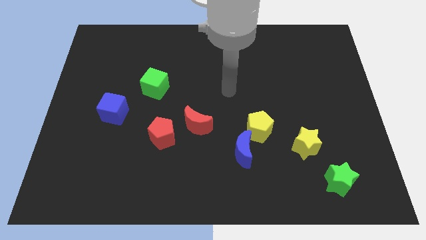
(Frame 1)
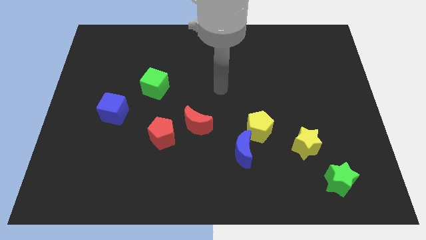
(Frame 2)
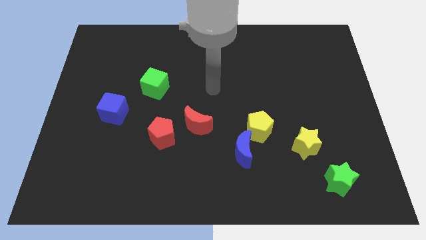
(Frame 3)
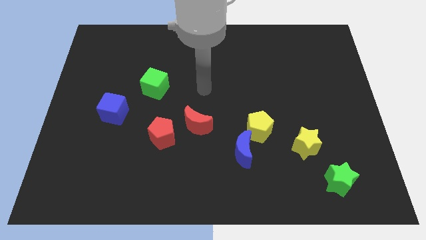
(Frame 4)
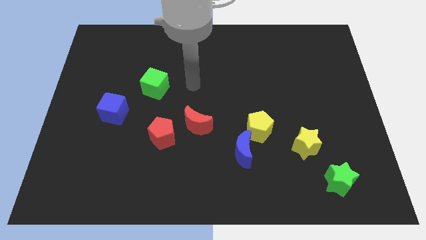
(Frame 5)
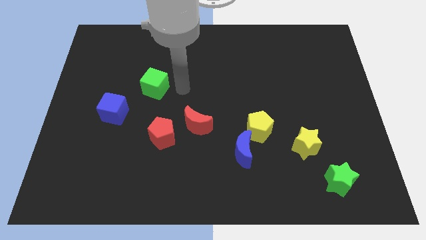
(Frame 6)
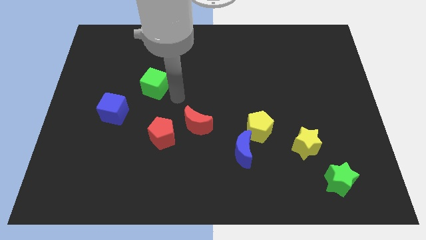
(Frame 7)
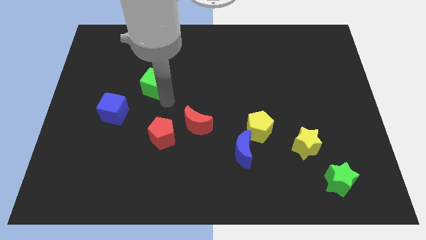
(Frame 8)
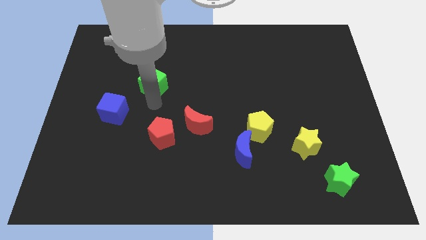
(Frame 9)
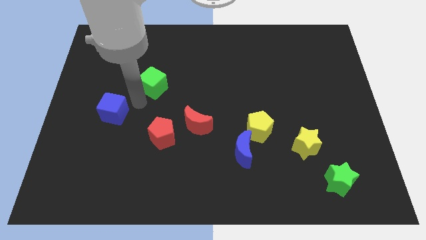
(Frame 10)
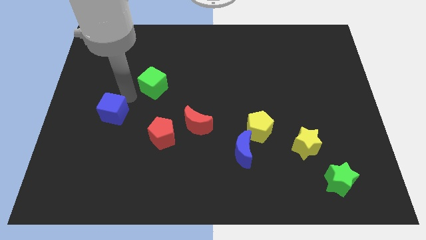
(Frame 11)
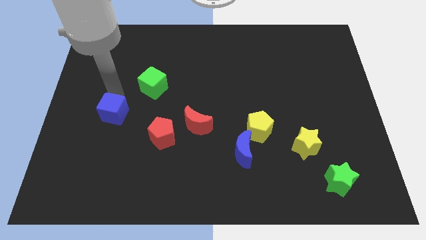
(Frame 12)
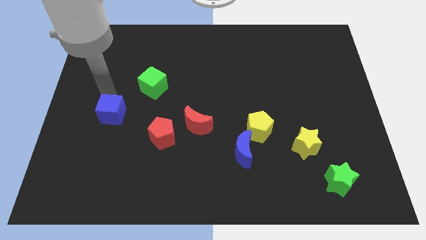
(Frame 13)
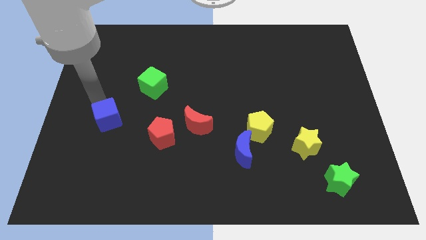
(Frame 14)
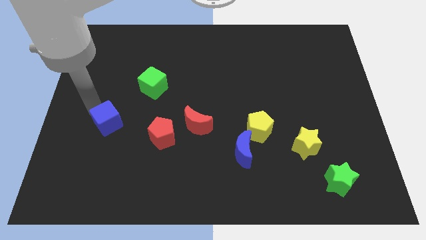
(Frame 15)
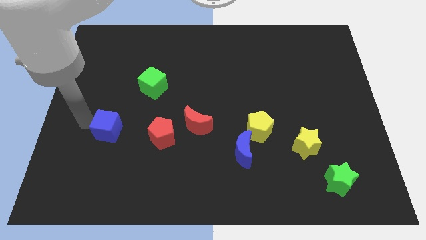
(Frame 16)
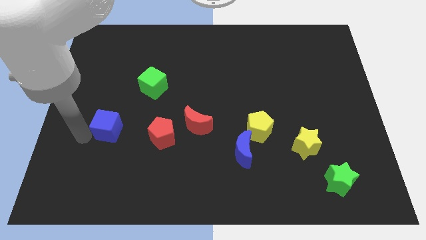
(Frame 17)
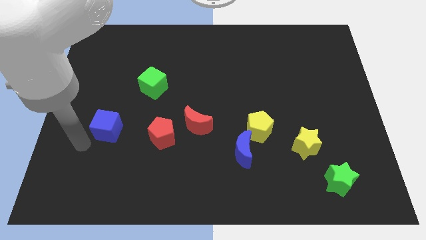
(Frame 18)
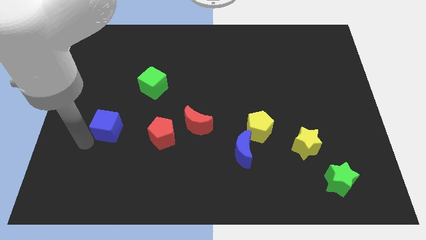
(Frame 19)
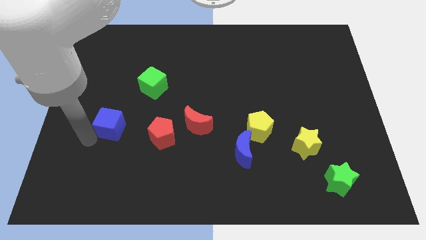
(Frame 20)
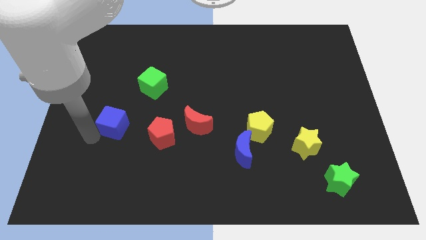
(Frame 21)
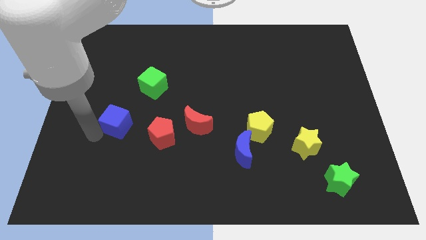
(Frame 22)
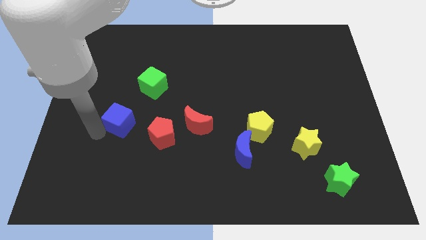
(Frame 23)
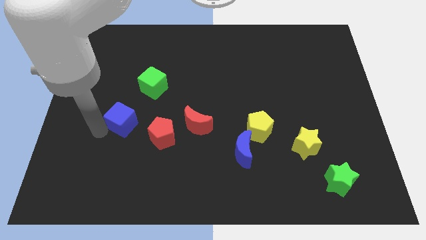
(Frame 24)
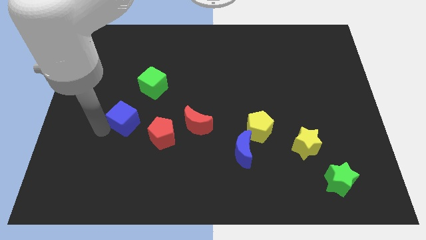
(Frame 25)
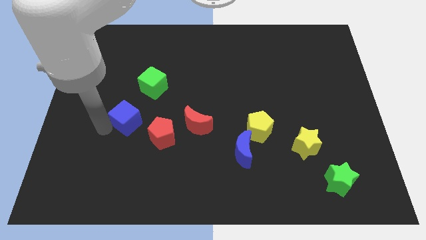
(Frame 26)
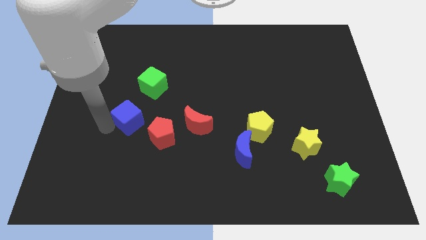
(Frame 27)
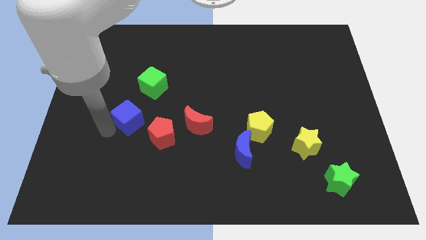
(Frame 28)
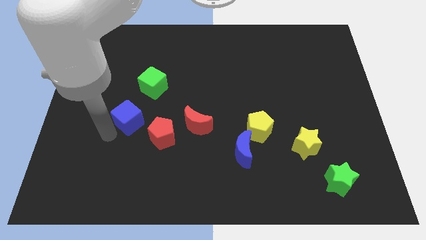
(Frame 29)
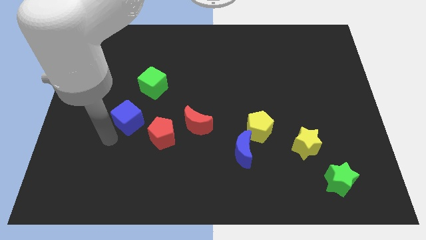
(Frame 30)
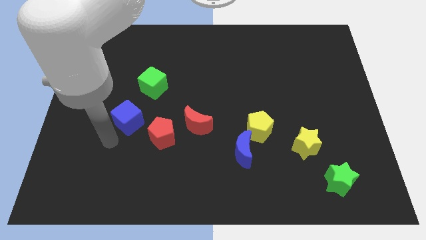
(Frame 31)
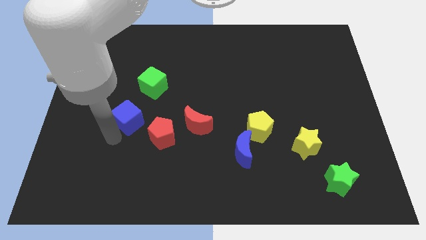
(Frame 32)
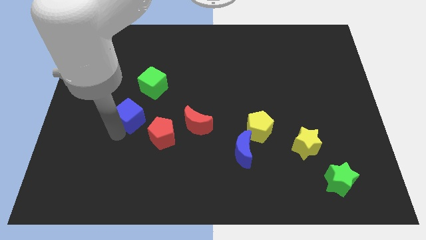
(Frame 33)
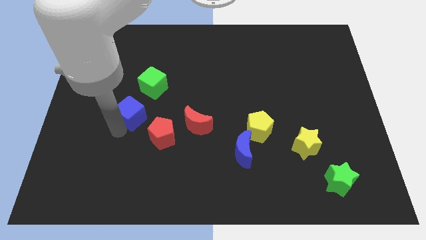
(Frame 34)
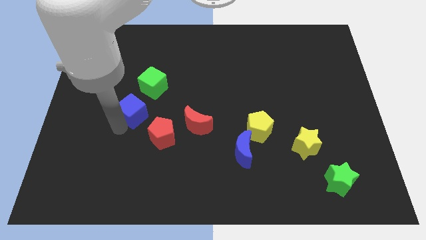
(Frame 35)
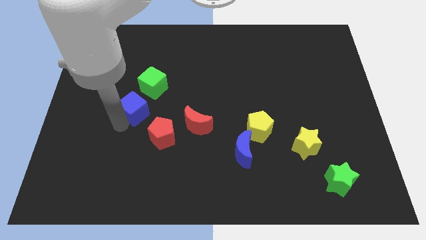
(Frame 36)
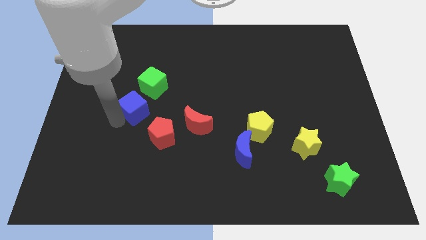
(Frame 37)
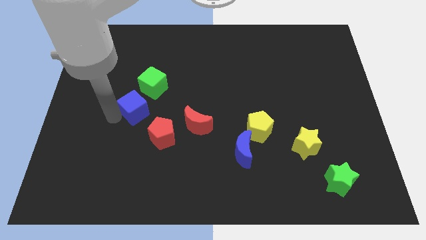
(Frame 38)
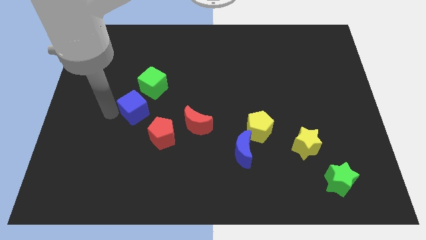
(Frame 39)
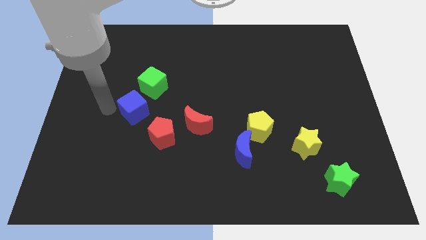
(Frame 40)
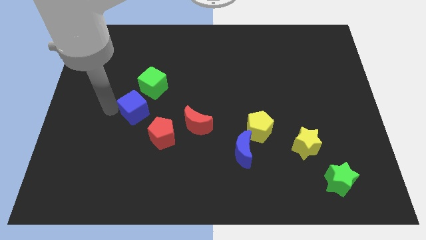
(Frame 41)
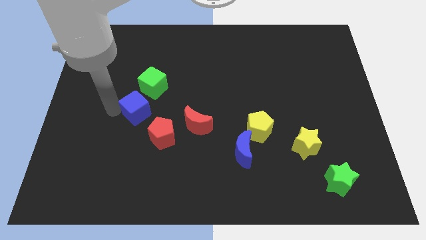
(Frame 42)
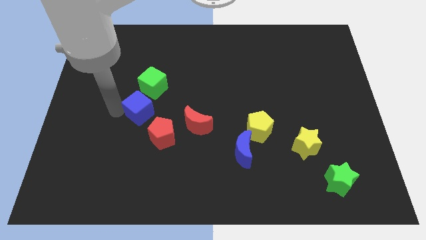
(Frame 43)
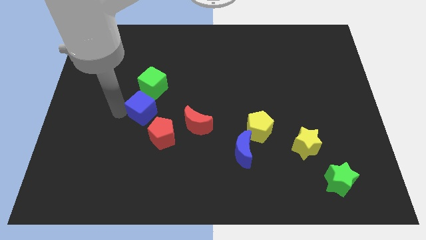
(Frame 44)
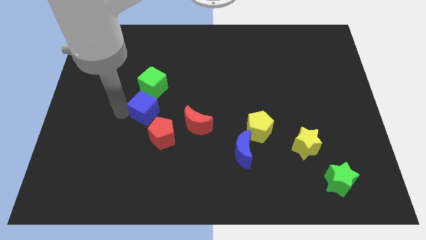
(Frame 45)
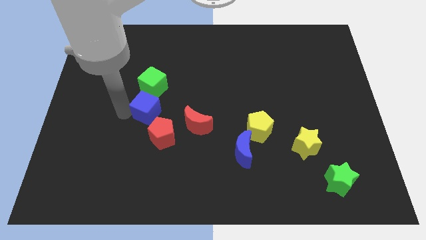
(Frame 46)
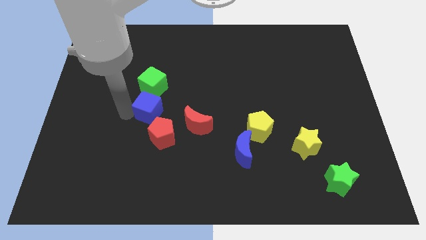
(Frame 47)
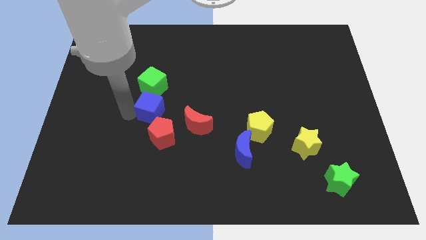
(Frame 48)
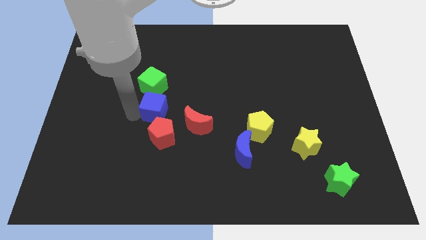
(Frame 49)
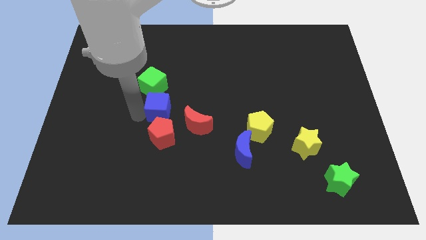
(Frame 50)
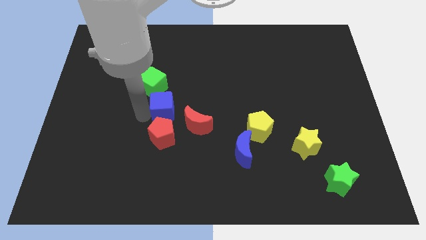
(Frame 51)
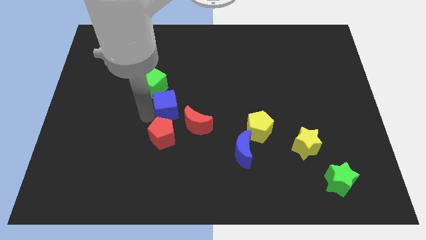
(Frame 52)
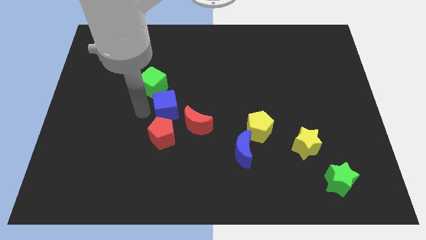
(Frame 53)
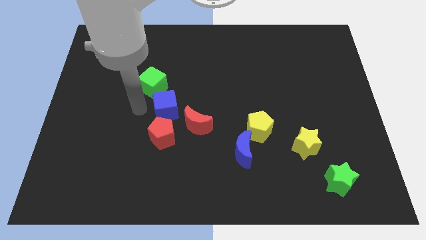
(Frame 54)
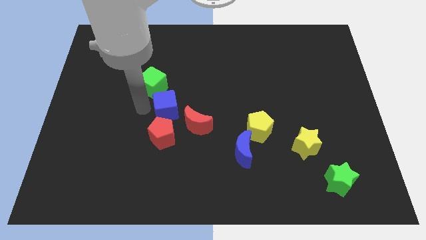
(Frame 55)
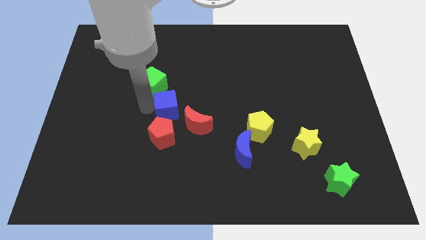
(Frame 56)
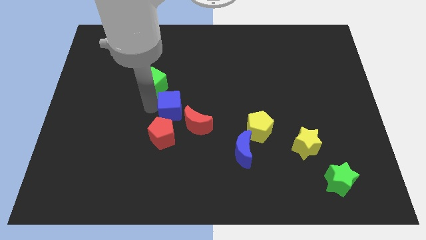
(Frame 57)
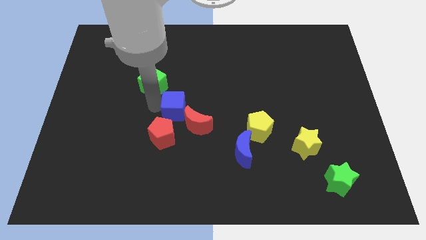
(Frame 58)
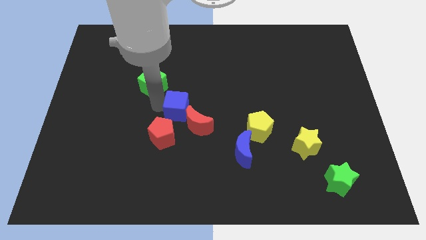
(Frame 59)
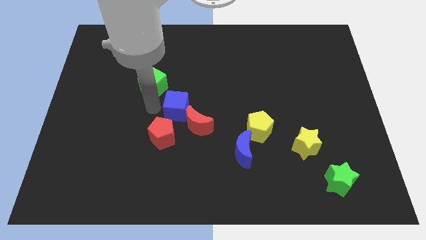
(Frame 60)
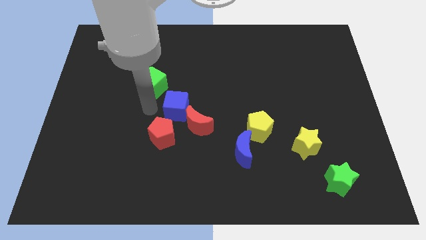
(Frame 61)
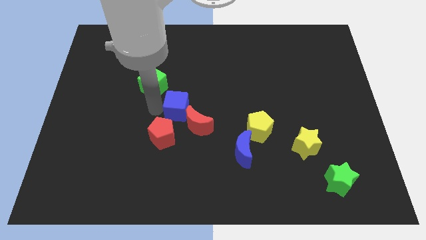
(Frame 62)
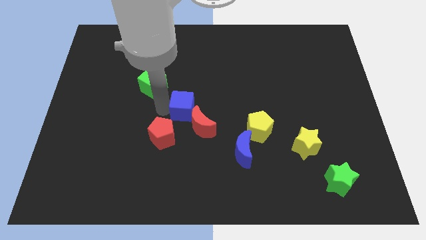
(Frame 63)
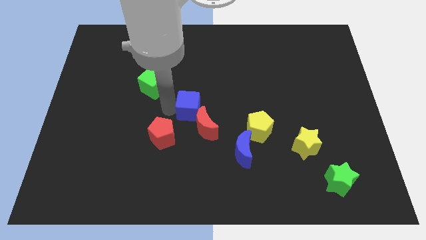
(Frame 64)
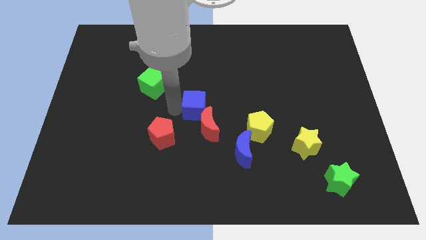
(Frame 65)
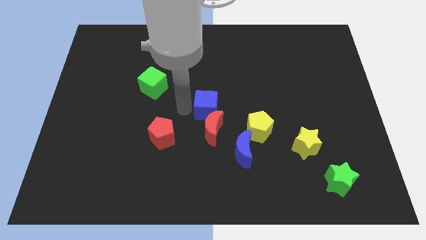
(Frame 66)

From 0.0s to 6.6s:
slide the blue cube right

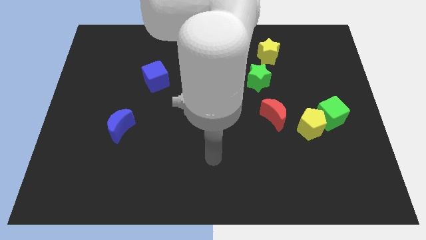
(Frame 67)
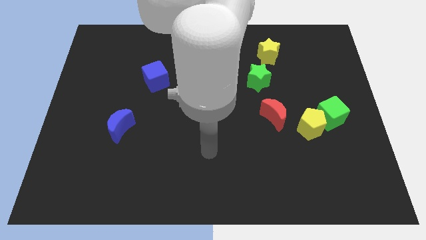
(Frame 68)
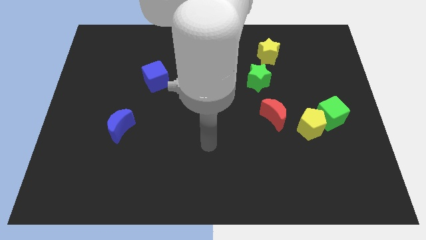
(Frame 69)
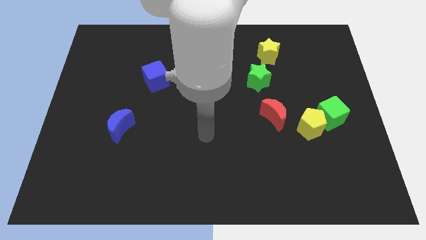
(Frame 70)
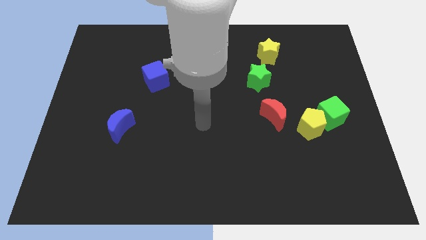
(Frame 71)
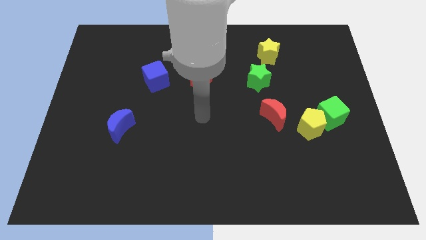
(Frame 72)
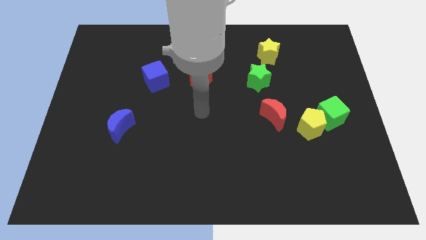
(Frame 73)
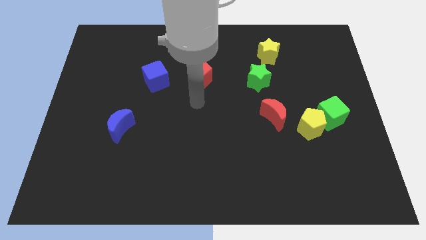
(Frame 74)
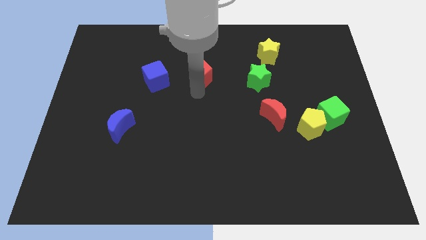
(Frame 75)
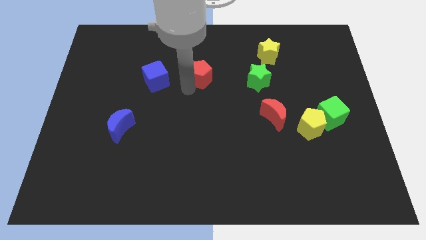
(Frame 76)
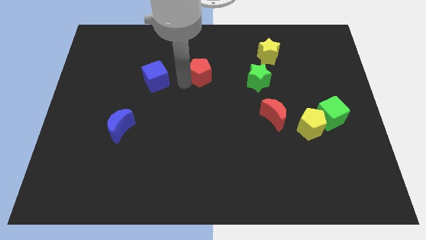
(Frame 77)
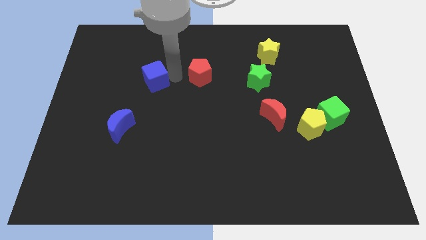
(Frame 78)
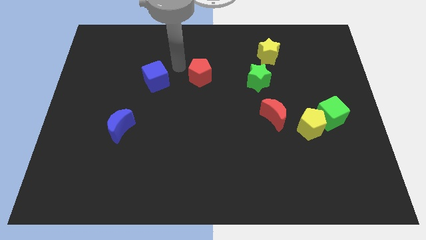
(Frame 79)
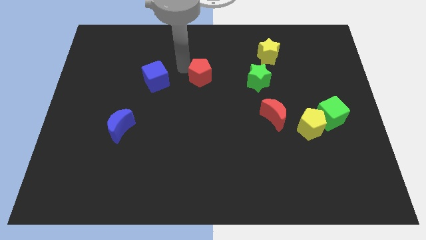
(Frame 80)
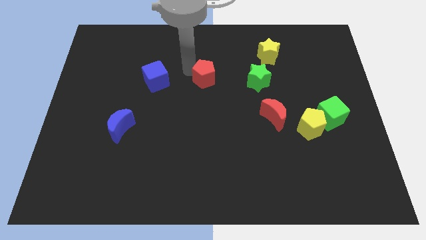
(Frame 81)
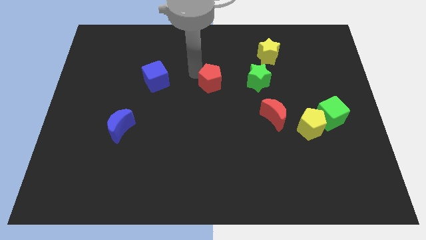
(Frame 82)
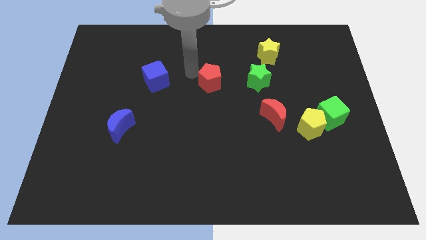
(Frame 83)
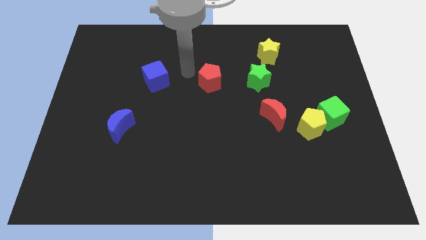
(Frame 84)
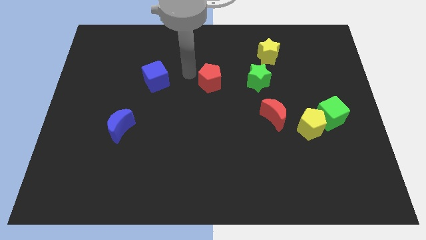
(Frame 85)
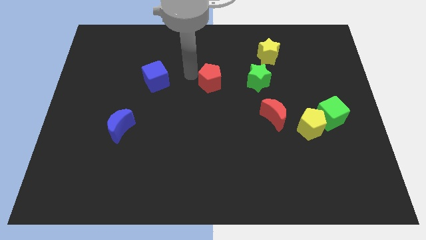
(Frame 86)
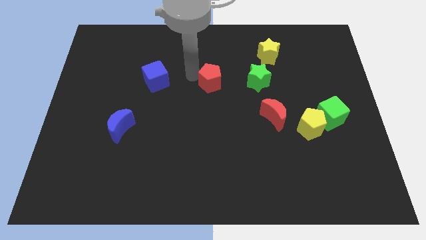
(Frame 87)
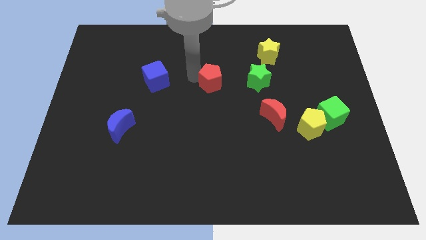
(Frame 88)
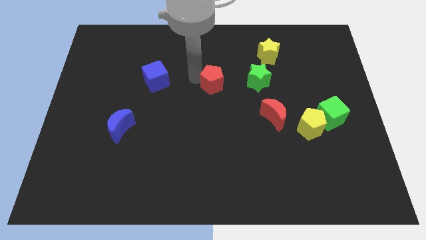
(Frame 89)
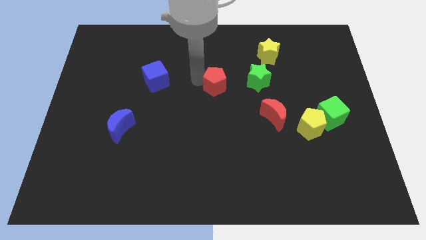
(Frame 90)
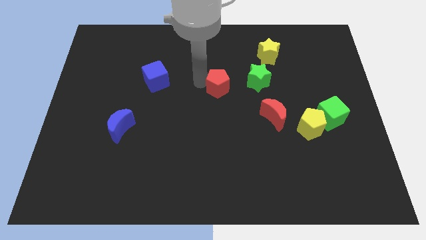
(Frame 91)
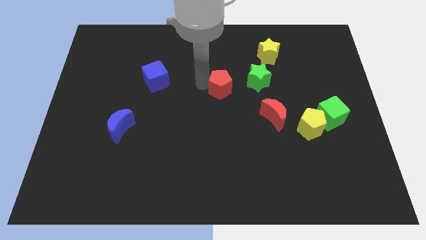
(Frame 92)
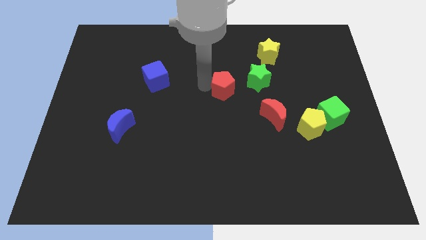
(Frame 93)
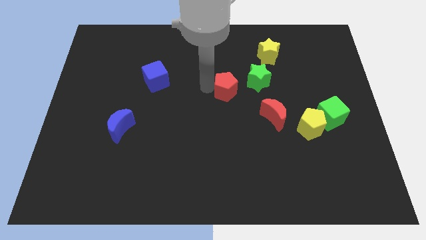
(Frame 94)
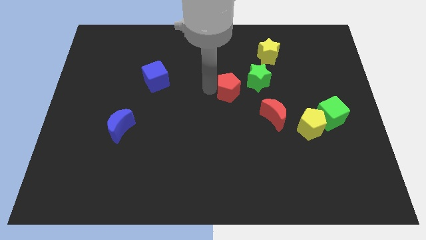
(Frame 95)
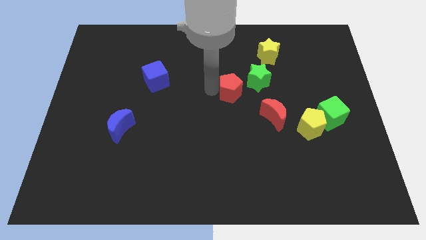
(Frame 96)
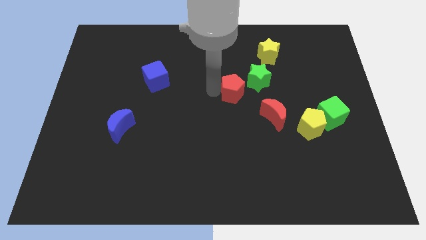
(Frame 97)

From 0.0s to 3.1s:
slightly slide the red pentagon to the right
